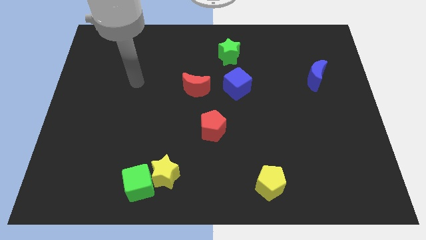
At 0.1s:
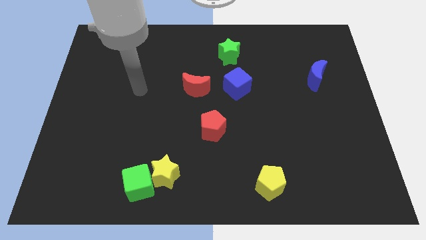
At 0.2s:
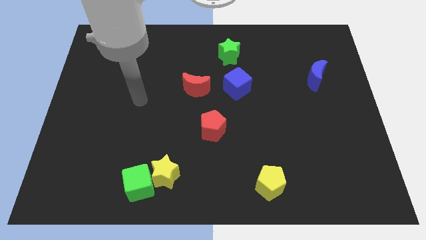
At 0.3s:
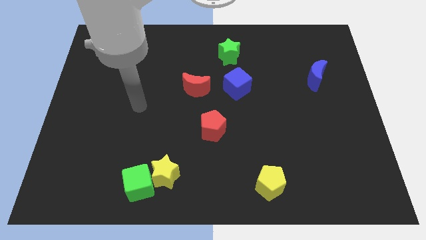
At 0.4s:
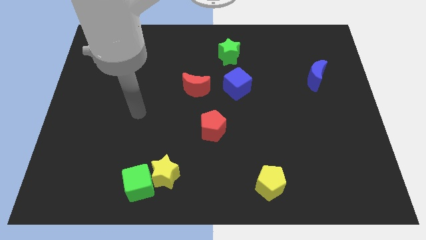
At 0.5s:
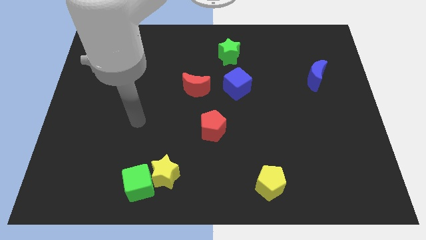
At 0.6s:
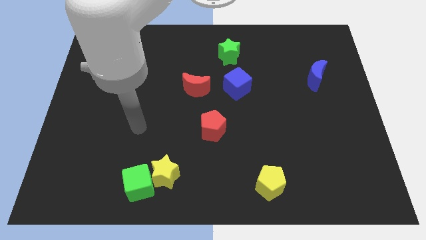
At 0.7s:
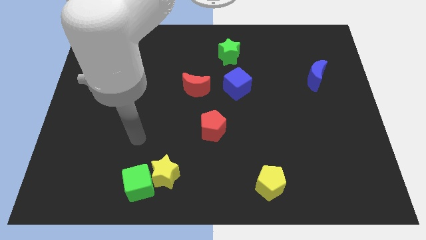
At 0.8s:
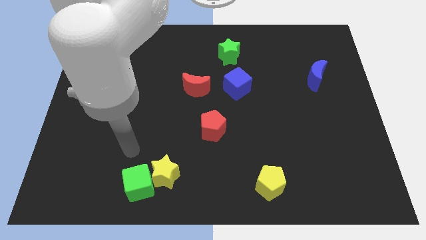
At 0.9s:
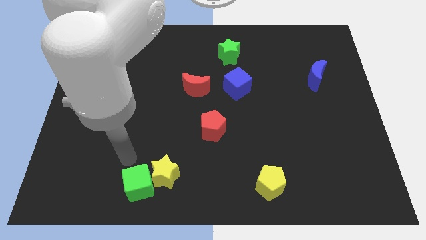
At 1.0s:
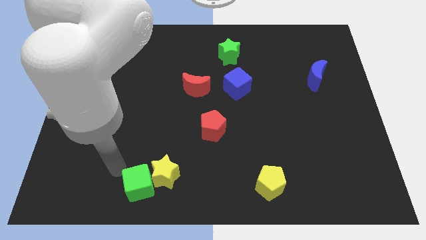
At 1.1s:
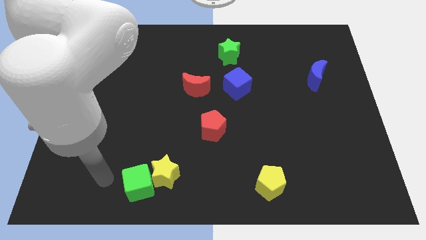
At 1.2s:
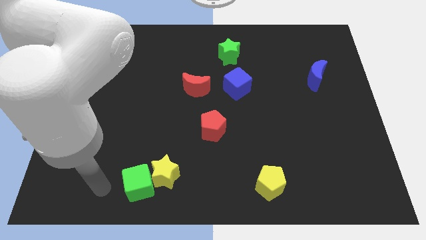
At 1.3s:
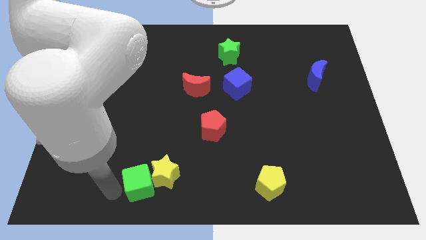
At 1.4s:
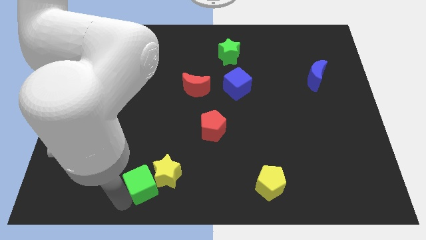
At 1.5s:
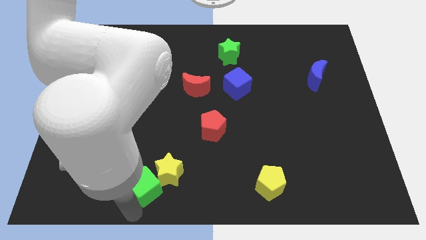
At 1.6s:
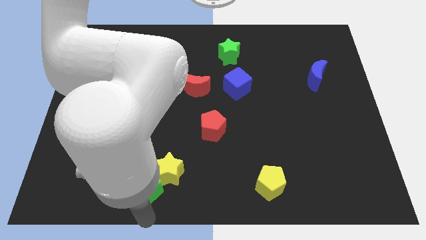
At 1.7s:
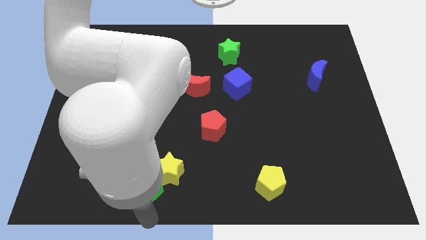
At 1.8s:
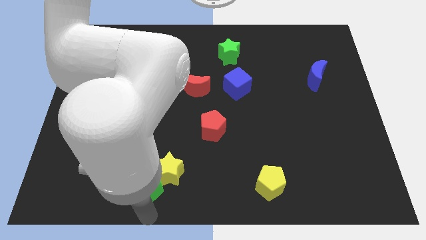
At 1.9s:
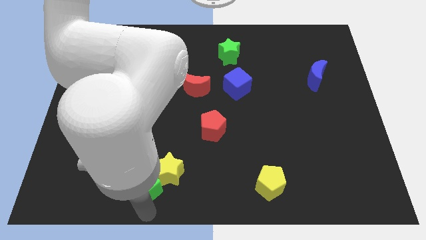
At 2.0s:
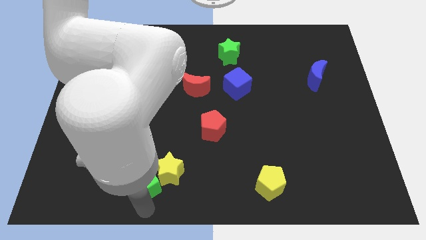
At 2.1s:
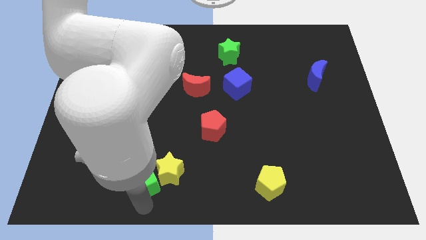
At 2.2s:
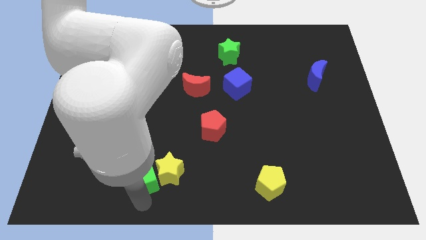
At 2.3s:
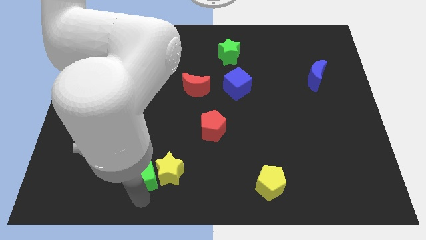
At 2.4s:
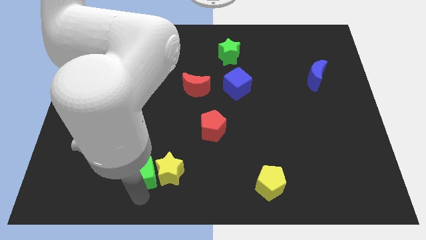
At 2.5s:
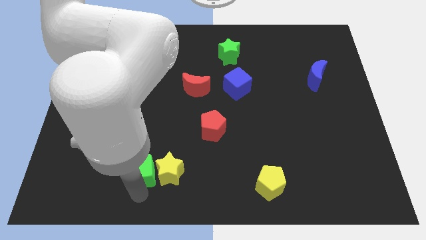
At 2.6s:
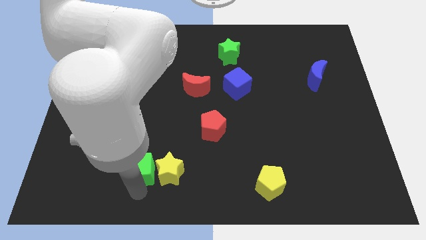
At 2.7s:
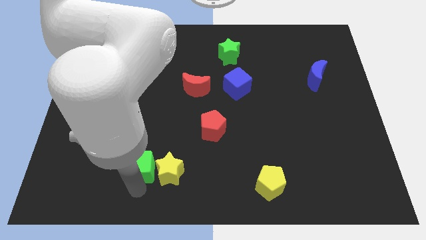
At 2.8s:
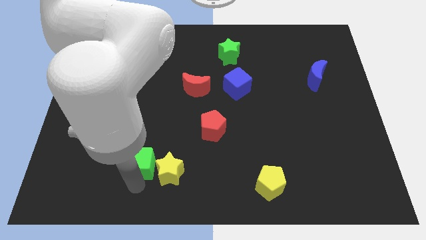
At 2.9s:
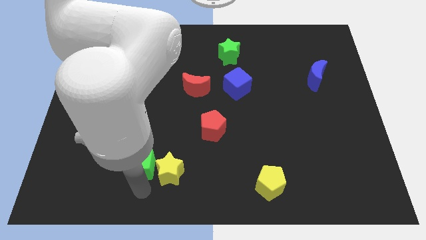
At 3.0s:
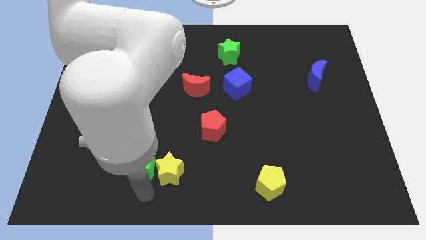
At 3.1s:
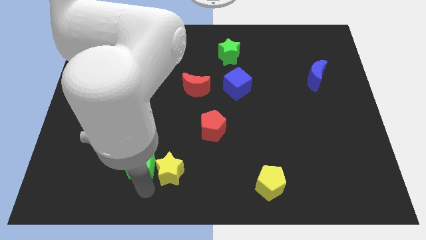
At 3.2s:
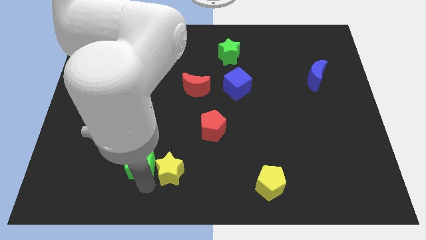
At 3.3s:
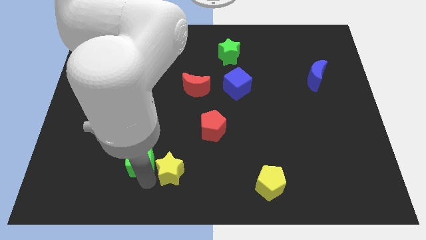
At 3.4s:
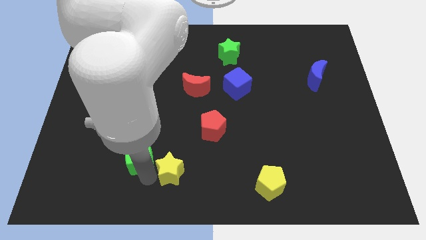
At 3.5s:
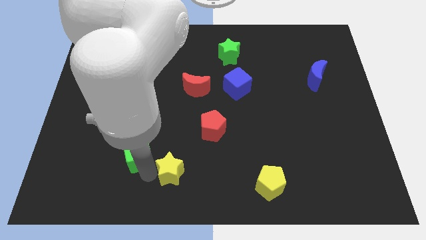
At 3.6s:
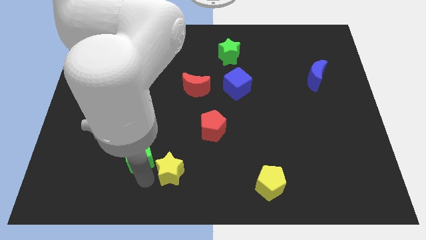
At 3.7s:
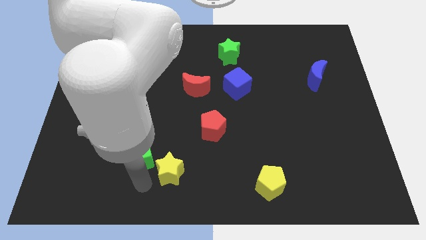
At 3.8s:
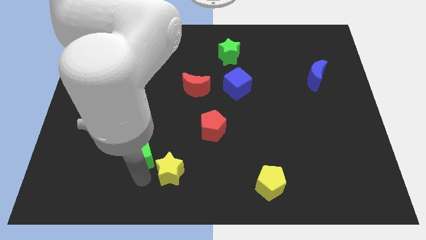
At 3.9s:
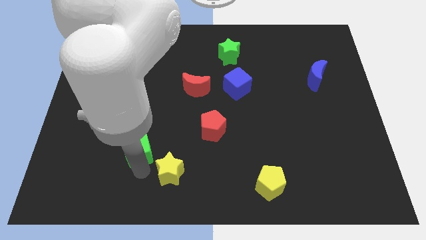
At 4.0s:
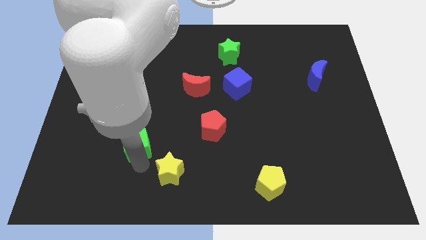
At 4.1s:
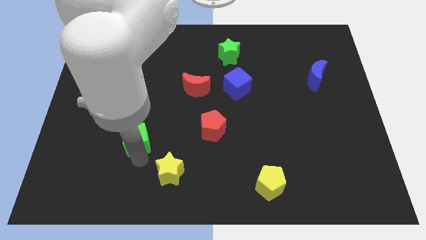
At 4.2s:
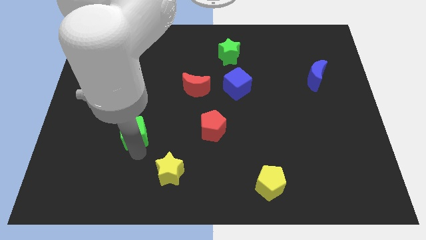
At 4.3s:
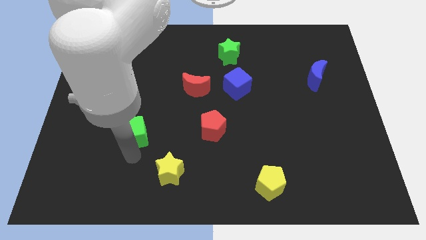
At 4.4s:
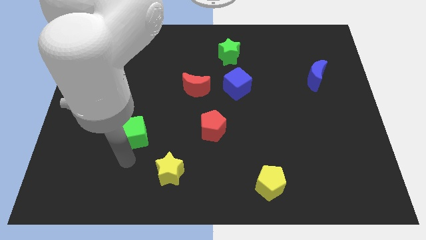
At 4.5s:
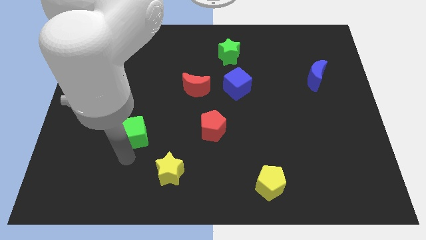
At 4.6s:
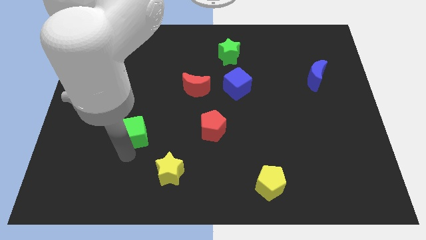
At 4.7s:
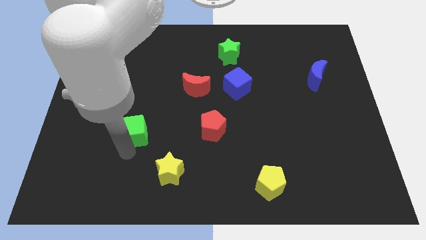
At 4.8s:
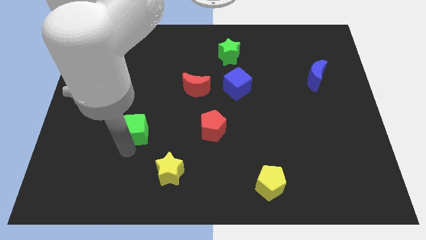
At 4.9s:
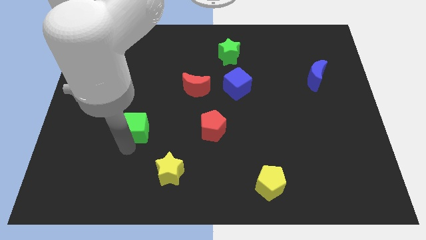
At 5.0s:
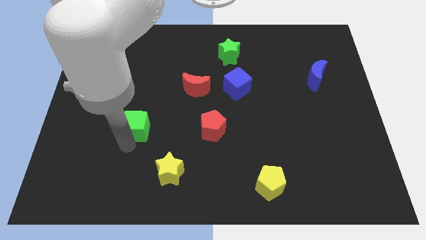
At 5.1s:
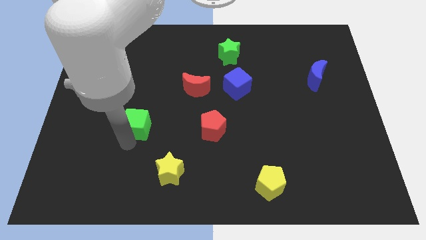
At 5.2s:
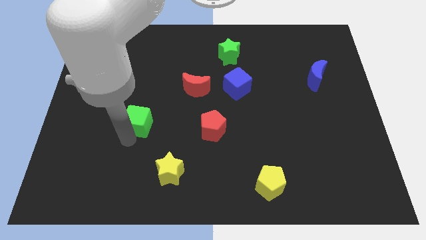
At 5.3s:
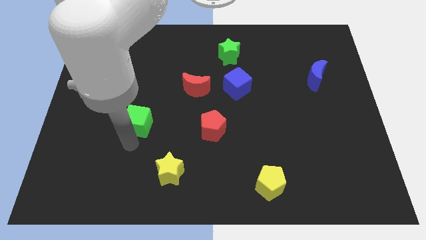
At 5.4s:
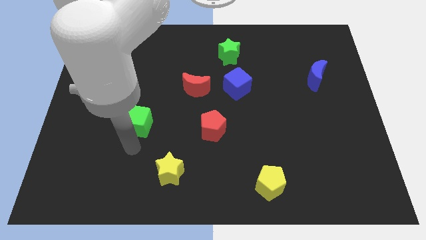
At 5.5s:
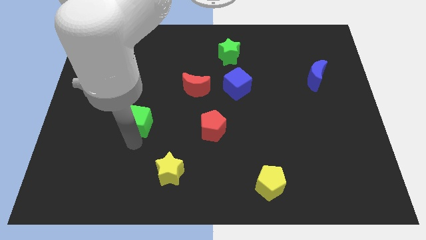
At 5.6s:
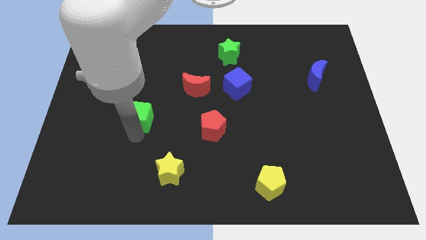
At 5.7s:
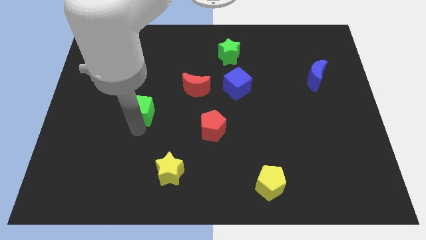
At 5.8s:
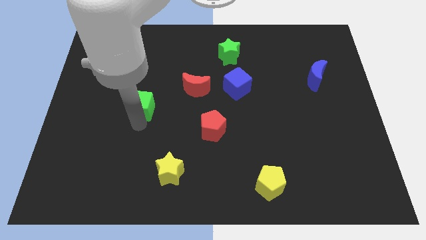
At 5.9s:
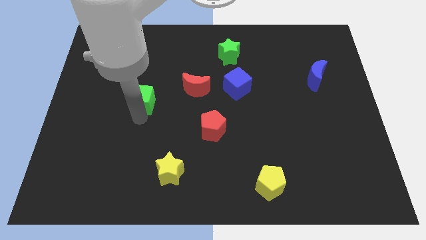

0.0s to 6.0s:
move the green cube upwards

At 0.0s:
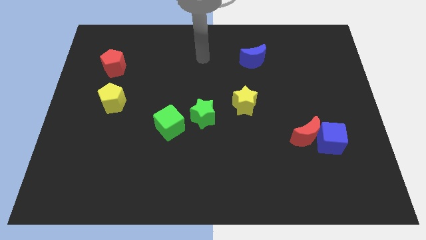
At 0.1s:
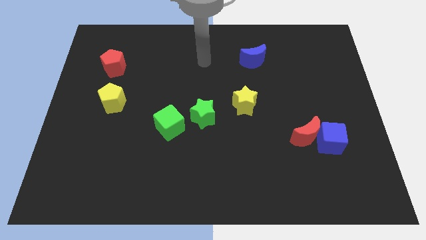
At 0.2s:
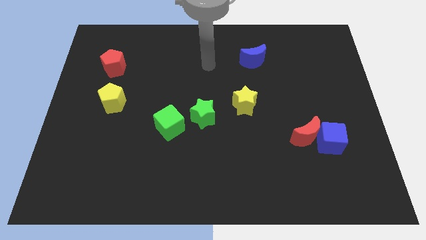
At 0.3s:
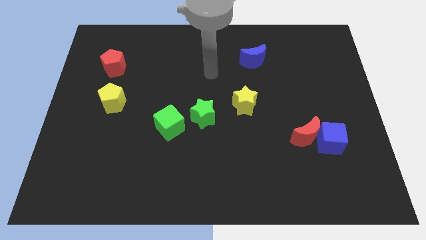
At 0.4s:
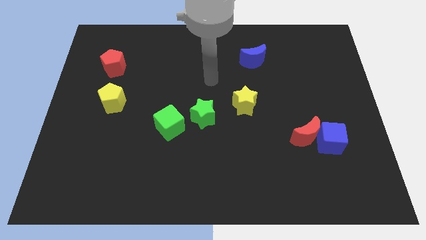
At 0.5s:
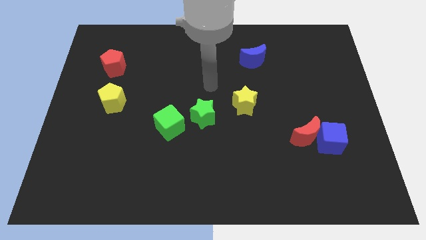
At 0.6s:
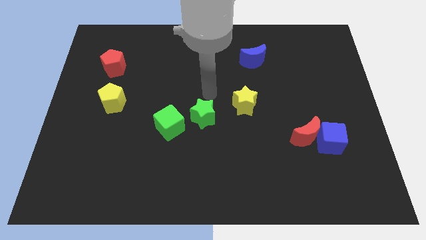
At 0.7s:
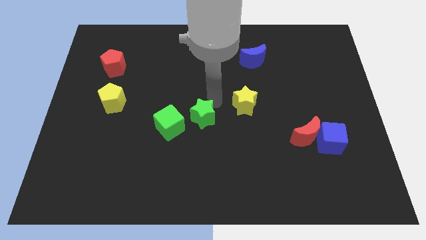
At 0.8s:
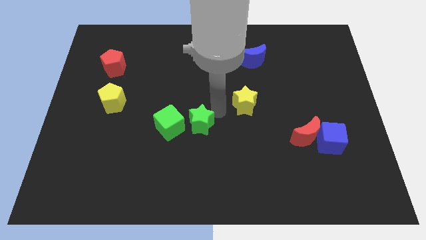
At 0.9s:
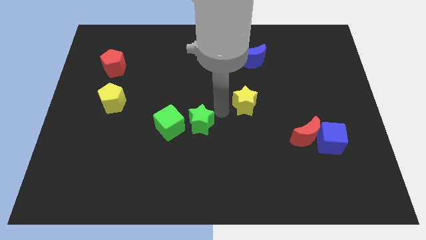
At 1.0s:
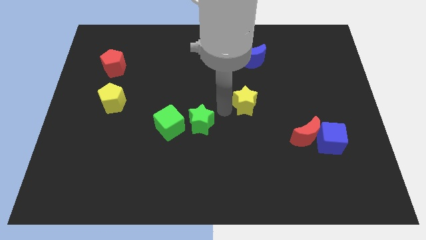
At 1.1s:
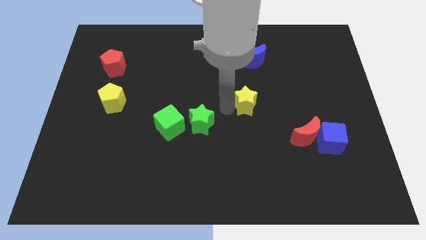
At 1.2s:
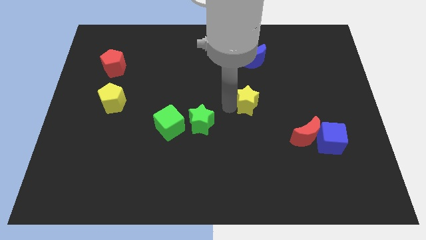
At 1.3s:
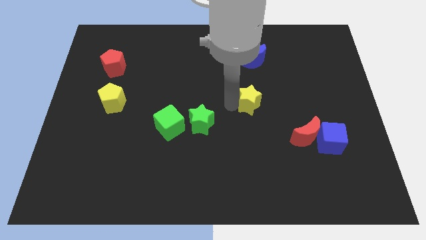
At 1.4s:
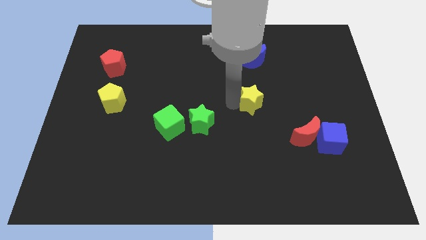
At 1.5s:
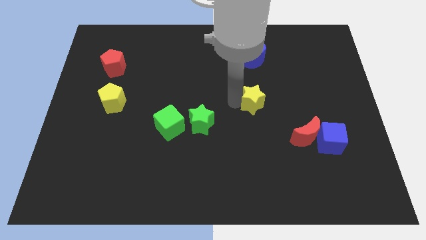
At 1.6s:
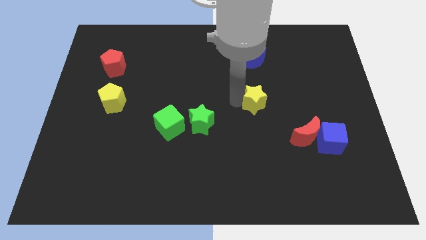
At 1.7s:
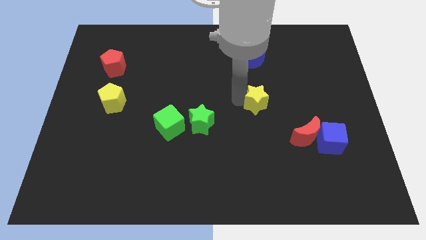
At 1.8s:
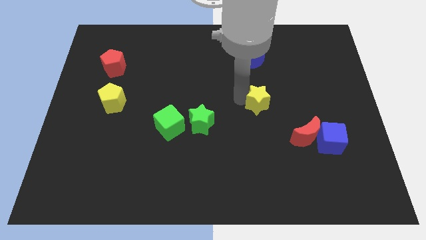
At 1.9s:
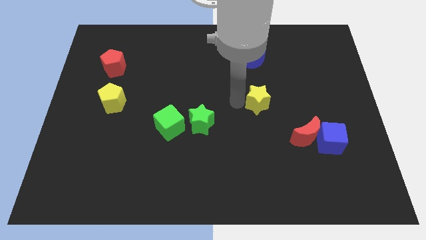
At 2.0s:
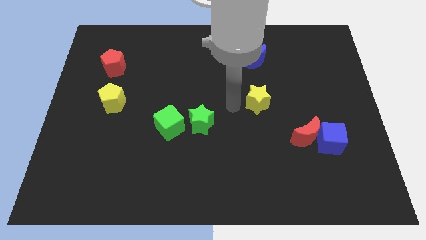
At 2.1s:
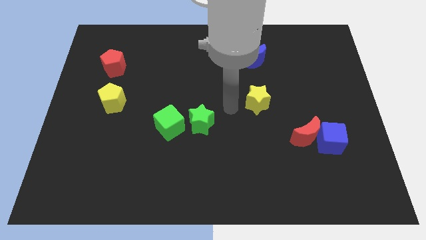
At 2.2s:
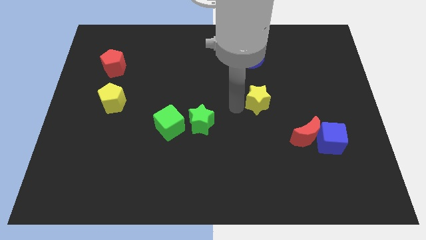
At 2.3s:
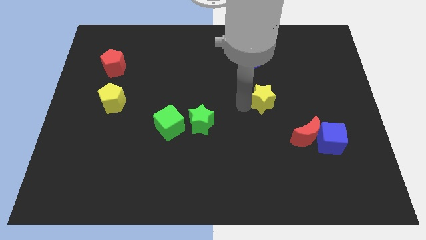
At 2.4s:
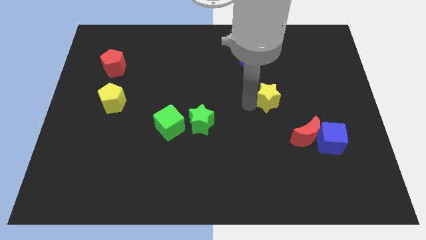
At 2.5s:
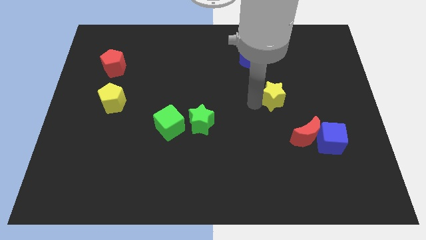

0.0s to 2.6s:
move the yellow star to the right somewhat
